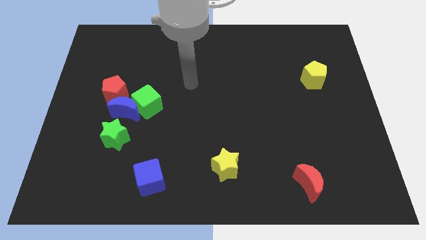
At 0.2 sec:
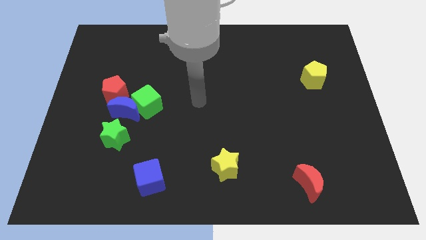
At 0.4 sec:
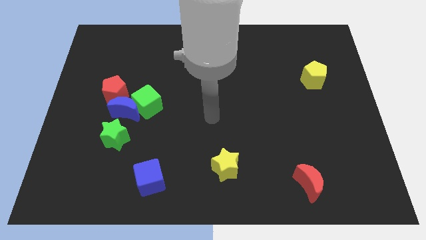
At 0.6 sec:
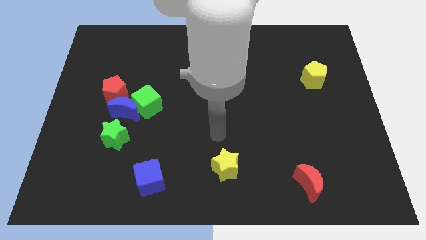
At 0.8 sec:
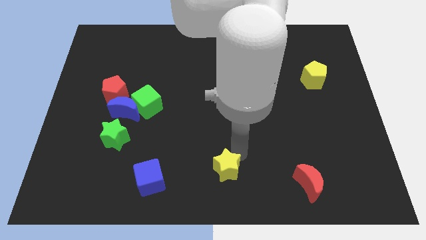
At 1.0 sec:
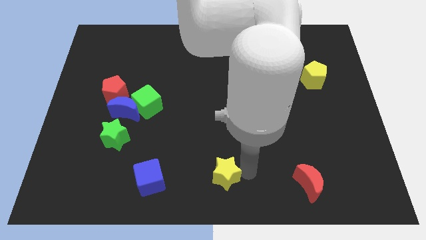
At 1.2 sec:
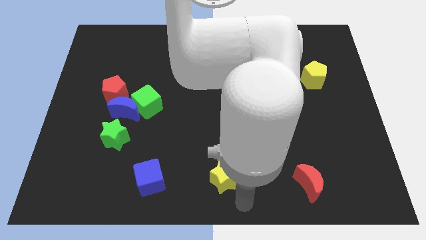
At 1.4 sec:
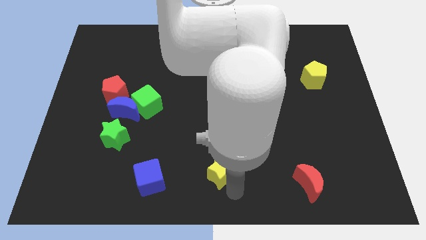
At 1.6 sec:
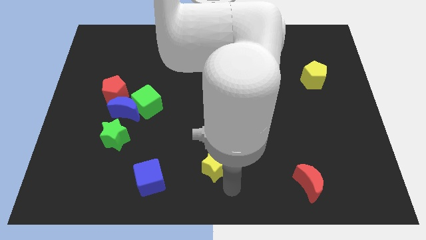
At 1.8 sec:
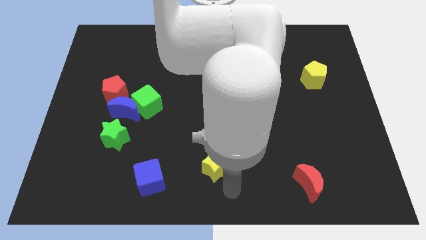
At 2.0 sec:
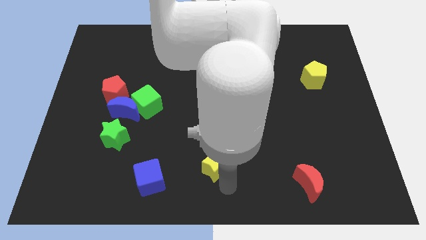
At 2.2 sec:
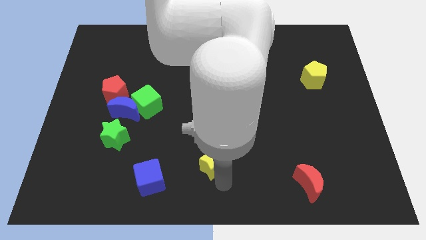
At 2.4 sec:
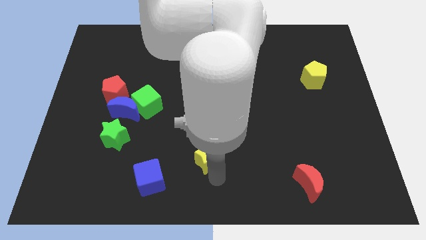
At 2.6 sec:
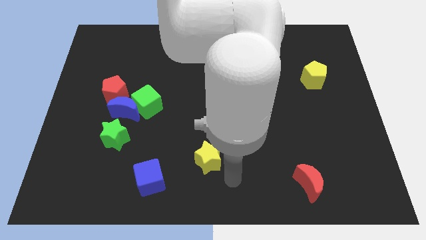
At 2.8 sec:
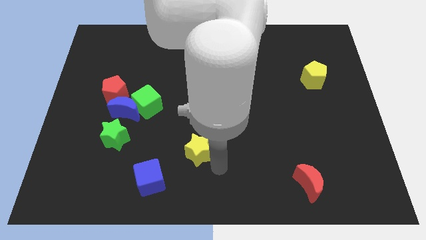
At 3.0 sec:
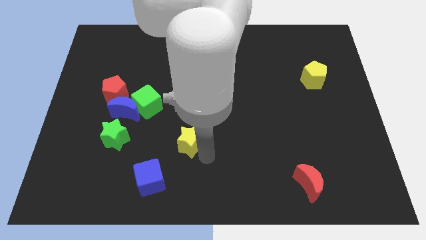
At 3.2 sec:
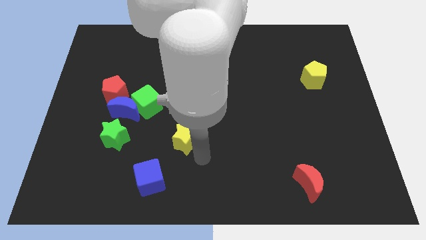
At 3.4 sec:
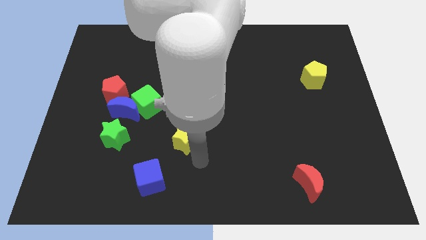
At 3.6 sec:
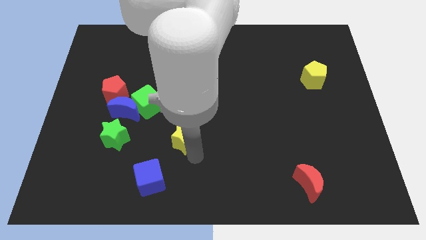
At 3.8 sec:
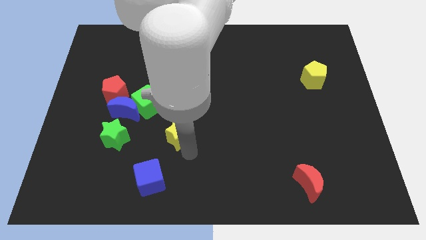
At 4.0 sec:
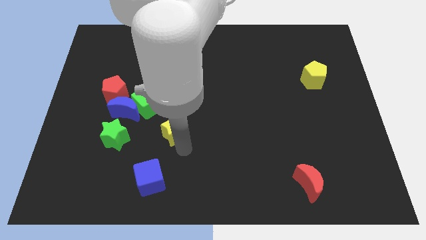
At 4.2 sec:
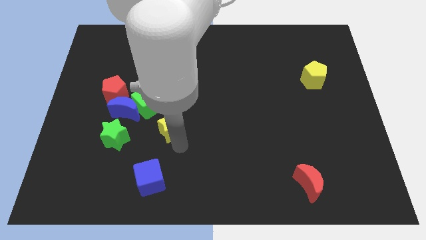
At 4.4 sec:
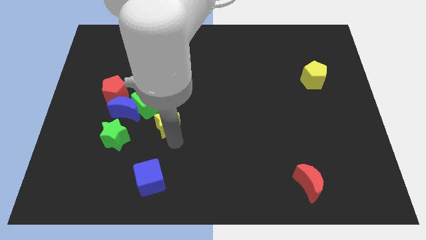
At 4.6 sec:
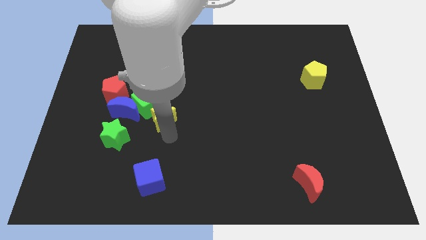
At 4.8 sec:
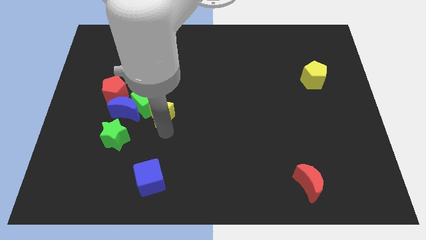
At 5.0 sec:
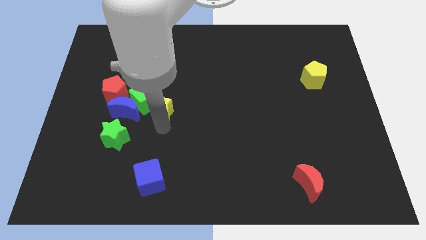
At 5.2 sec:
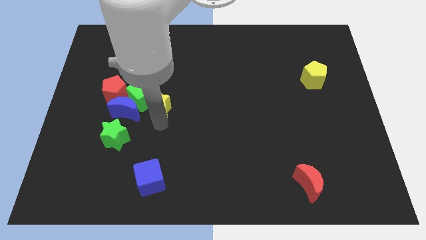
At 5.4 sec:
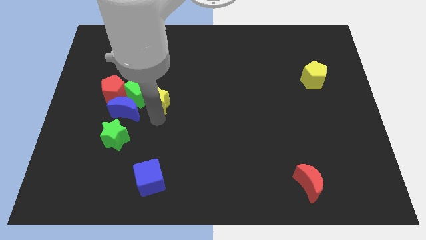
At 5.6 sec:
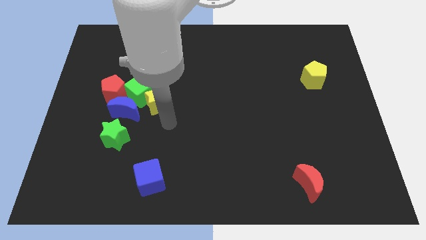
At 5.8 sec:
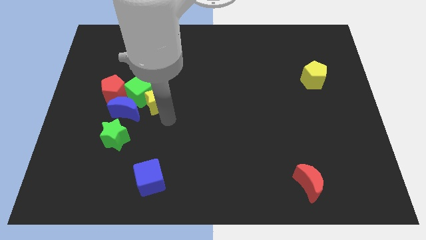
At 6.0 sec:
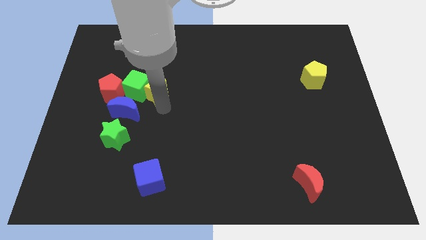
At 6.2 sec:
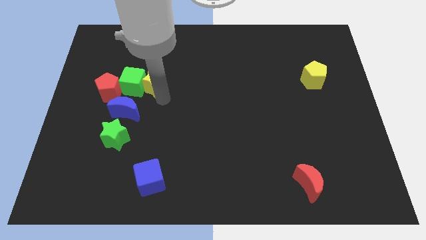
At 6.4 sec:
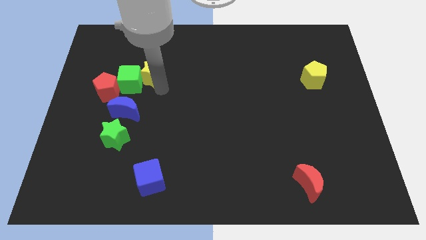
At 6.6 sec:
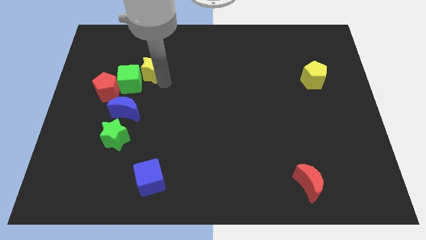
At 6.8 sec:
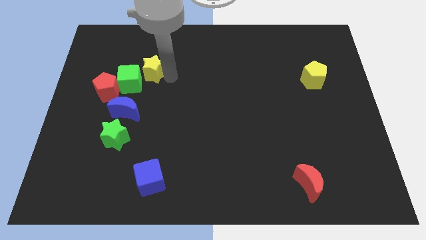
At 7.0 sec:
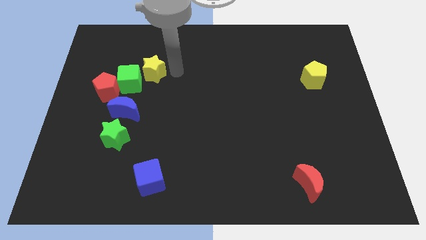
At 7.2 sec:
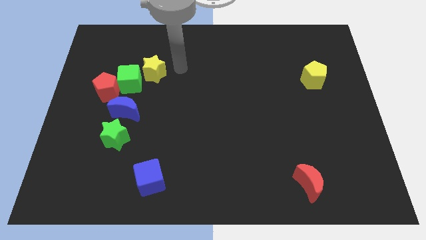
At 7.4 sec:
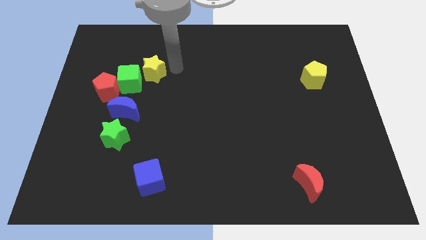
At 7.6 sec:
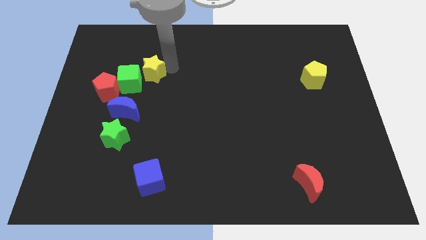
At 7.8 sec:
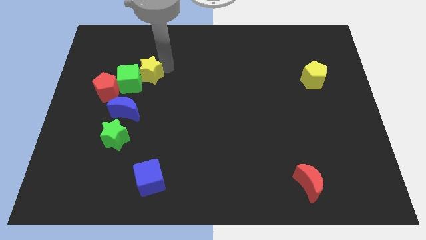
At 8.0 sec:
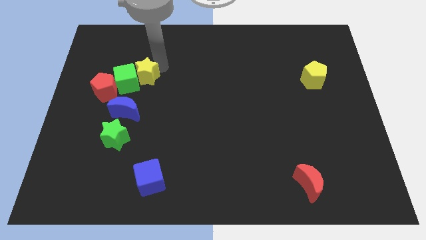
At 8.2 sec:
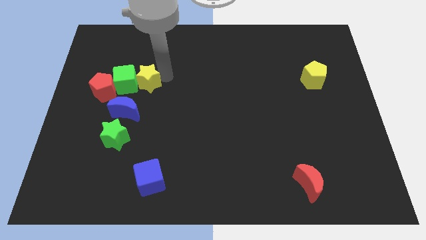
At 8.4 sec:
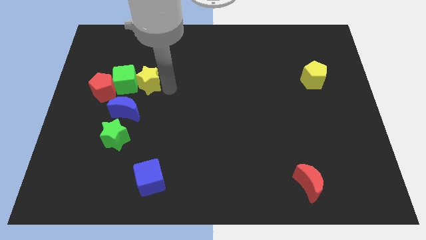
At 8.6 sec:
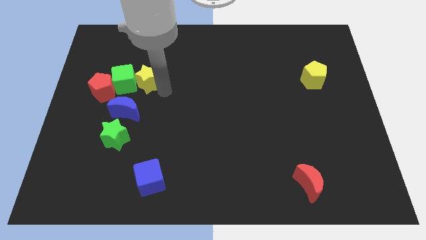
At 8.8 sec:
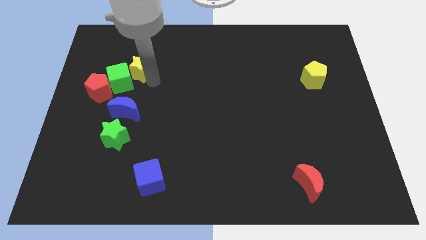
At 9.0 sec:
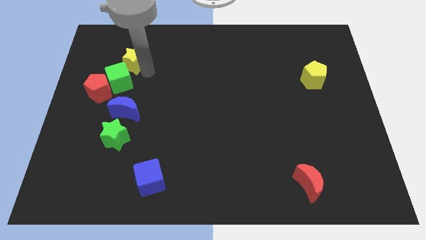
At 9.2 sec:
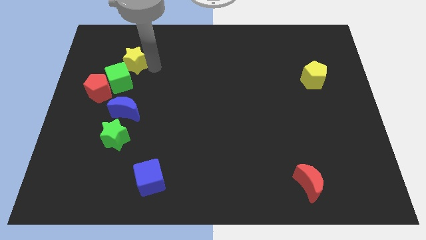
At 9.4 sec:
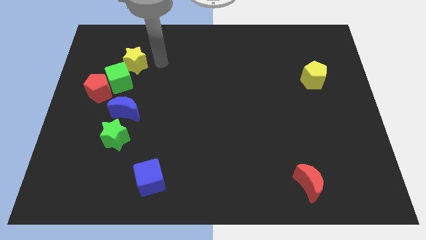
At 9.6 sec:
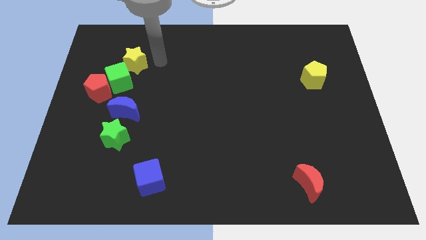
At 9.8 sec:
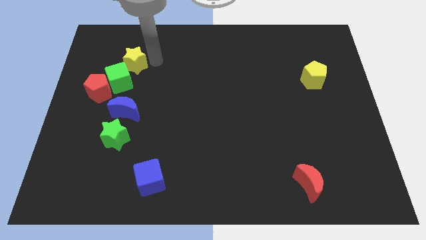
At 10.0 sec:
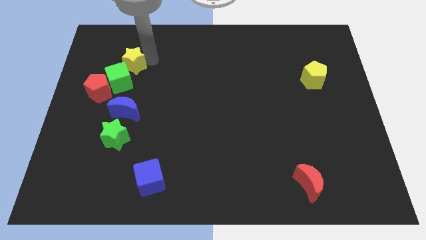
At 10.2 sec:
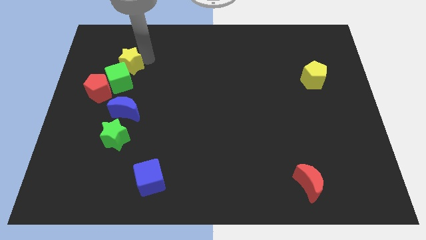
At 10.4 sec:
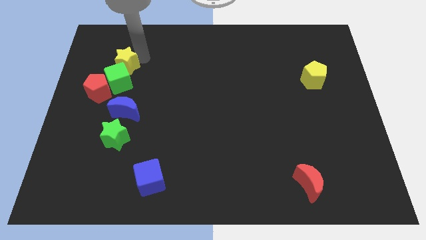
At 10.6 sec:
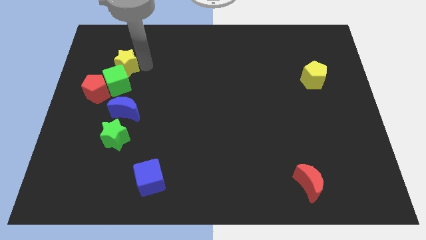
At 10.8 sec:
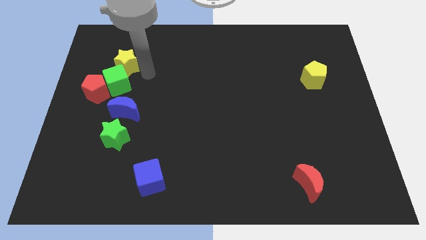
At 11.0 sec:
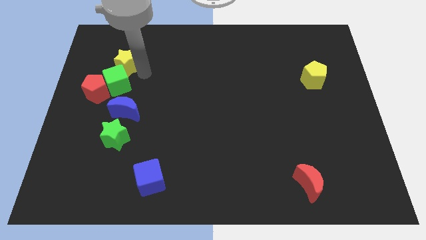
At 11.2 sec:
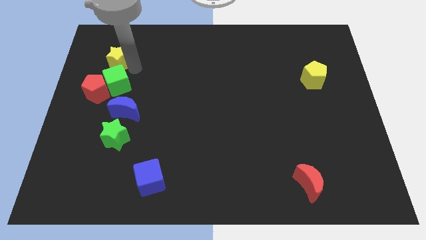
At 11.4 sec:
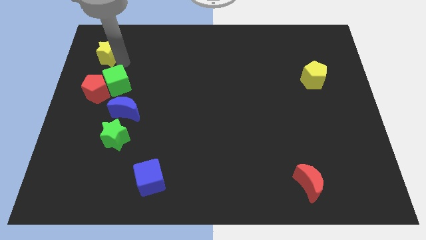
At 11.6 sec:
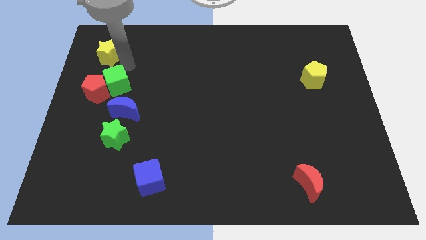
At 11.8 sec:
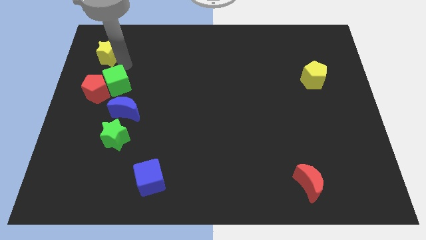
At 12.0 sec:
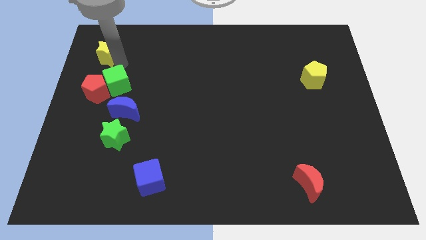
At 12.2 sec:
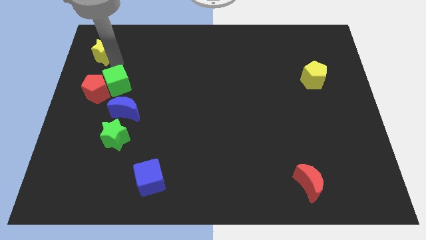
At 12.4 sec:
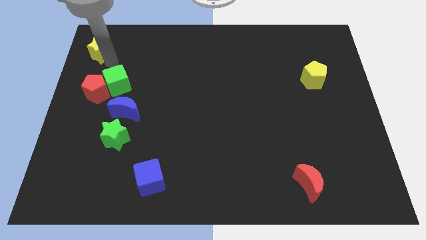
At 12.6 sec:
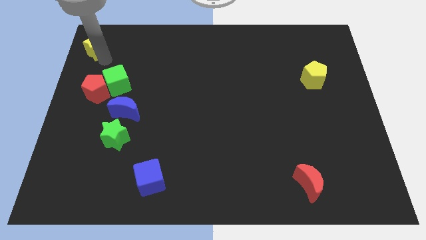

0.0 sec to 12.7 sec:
push the yellow star to the top left corner

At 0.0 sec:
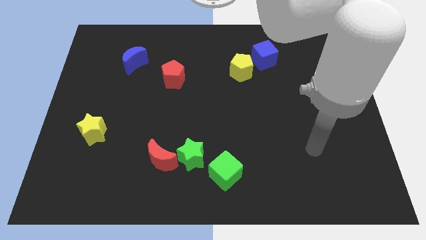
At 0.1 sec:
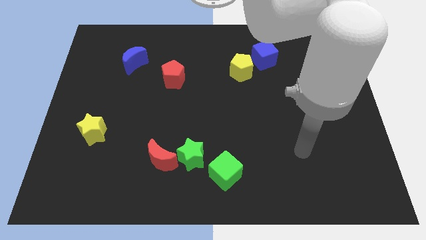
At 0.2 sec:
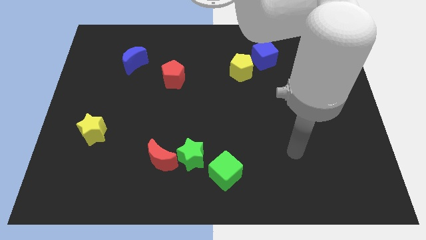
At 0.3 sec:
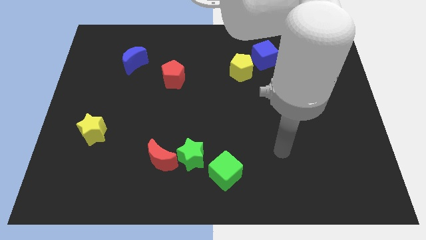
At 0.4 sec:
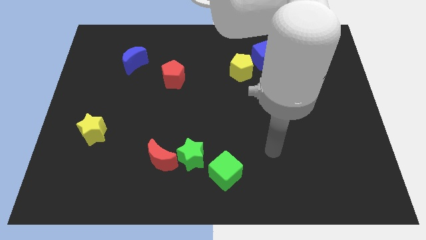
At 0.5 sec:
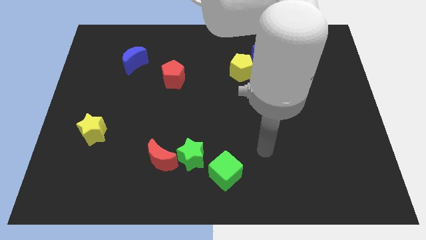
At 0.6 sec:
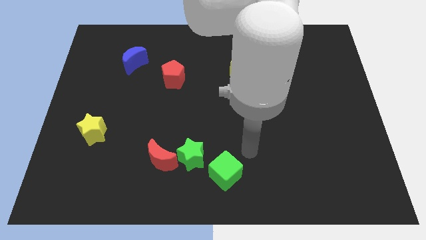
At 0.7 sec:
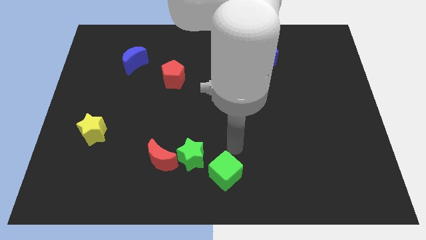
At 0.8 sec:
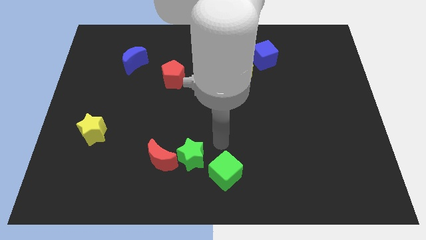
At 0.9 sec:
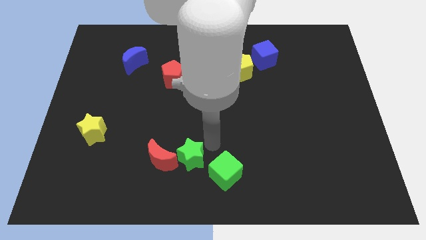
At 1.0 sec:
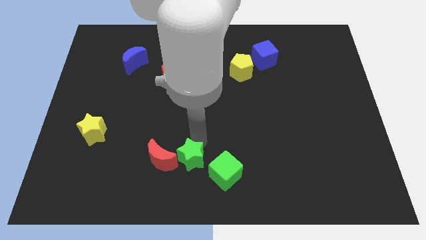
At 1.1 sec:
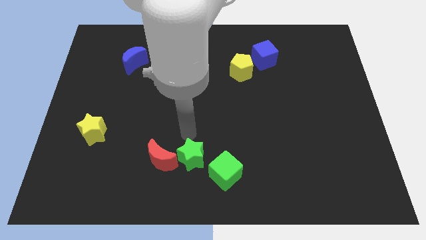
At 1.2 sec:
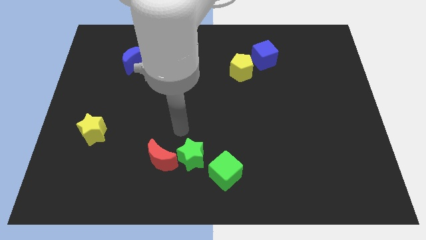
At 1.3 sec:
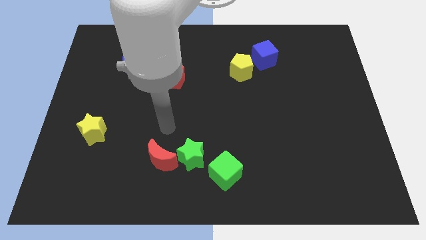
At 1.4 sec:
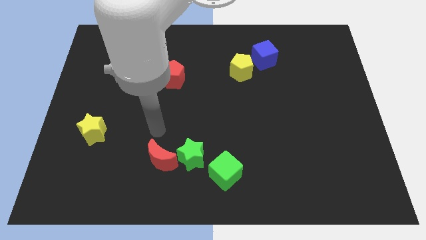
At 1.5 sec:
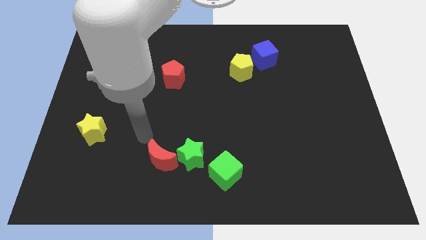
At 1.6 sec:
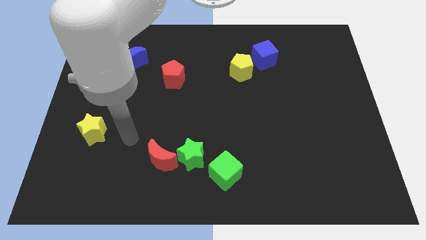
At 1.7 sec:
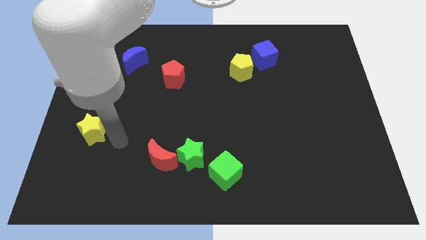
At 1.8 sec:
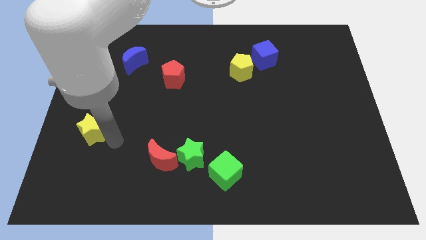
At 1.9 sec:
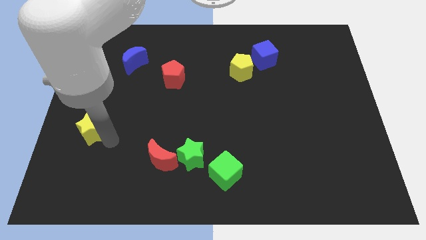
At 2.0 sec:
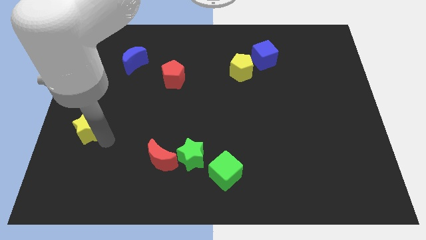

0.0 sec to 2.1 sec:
move the yellow star to the left side
